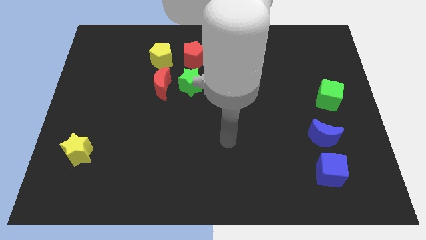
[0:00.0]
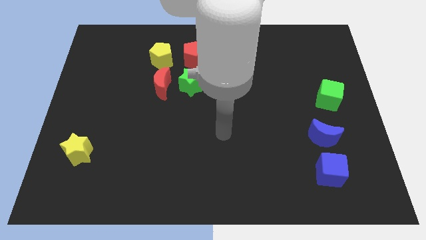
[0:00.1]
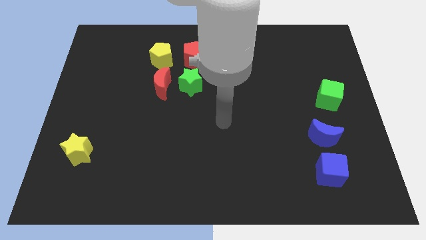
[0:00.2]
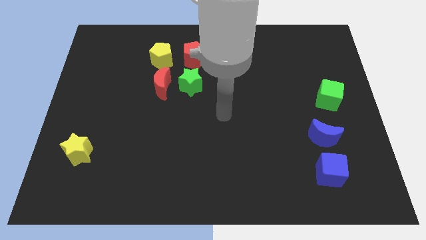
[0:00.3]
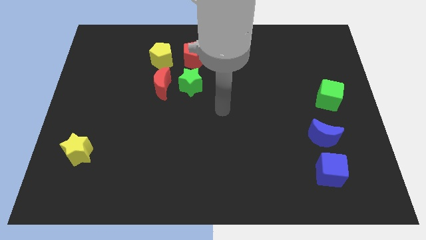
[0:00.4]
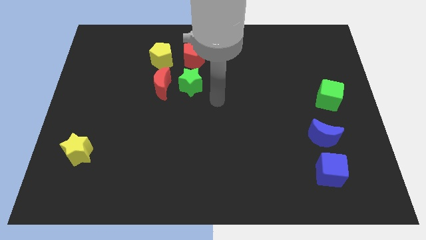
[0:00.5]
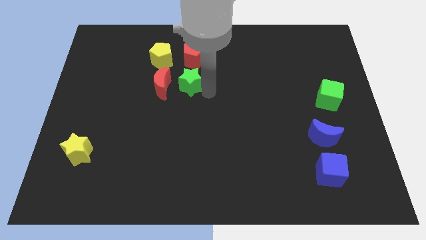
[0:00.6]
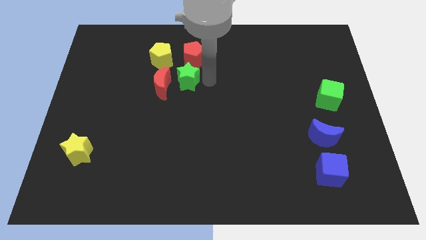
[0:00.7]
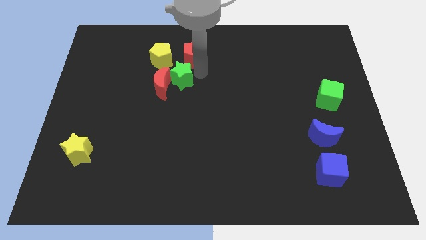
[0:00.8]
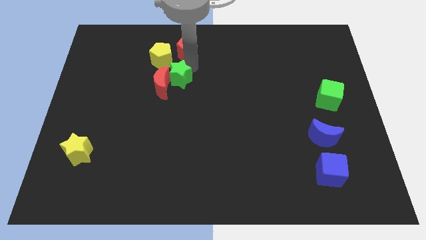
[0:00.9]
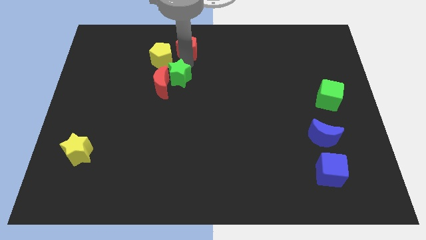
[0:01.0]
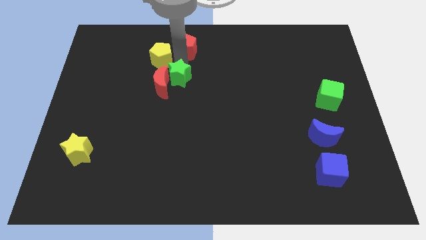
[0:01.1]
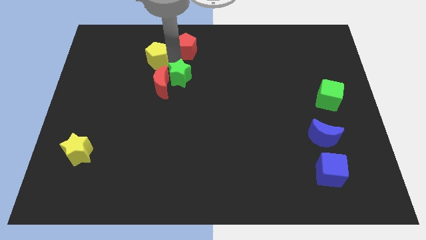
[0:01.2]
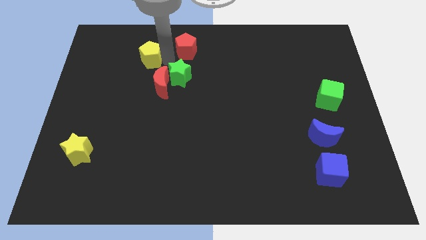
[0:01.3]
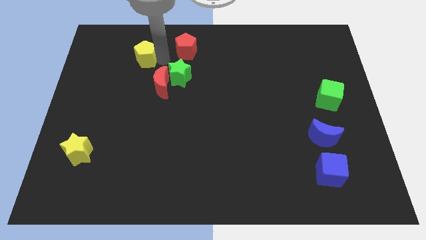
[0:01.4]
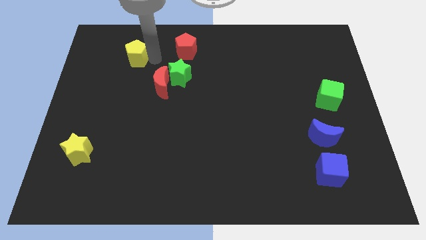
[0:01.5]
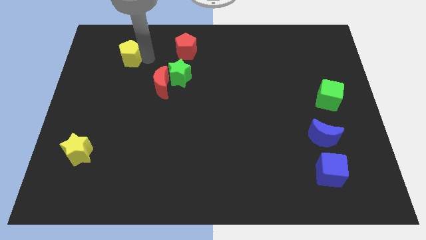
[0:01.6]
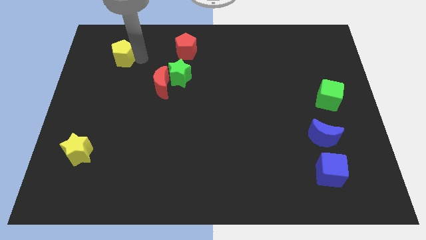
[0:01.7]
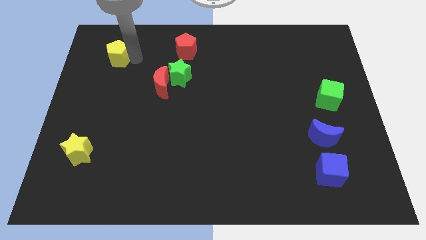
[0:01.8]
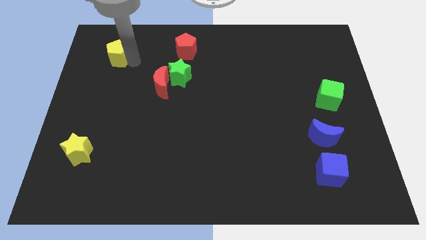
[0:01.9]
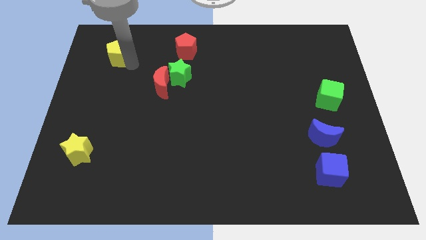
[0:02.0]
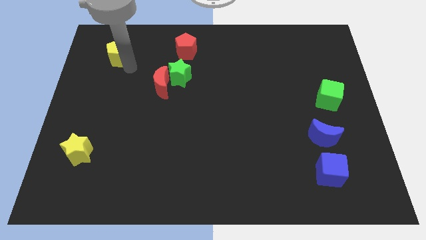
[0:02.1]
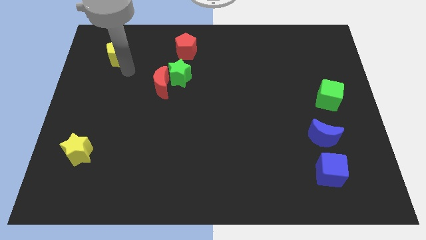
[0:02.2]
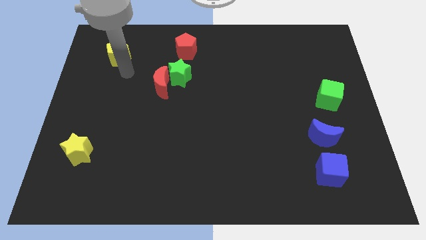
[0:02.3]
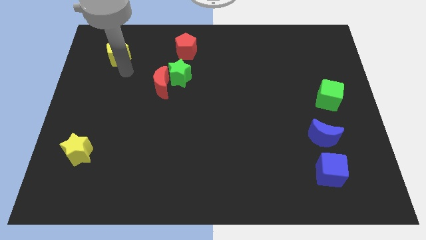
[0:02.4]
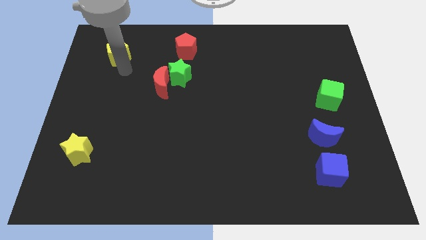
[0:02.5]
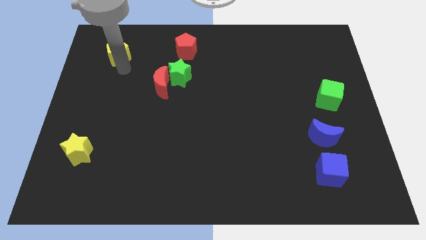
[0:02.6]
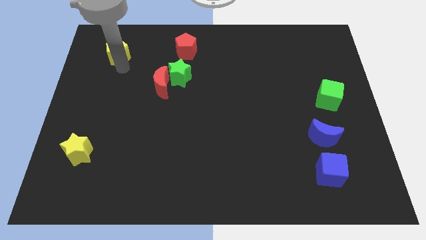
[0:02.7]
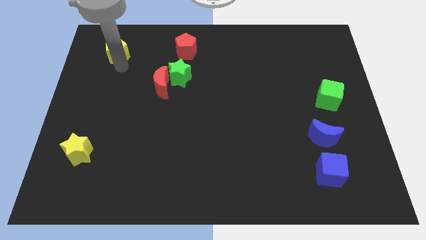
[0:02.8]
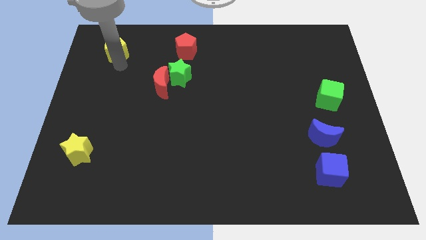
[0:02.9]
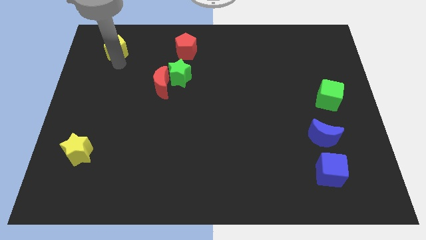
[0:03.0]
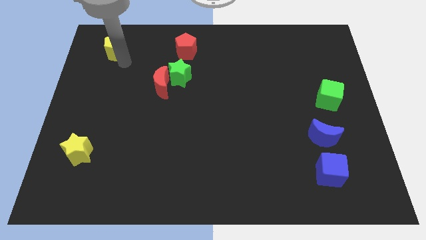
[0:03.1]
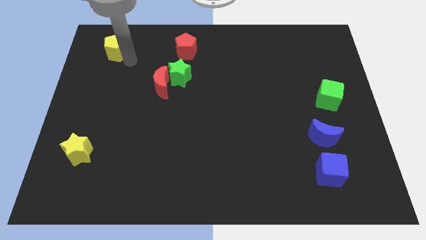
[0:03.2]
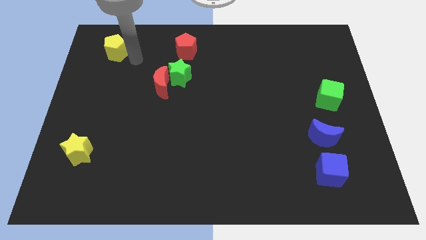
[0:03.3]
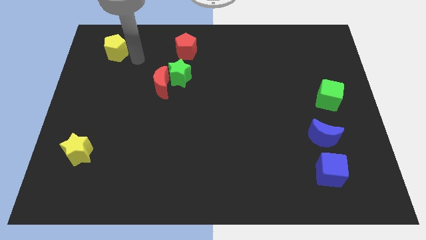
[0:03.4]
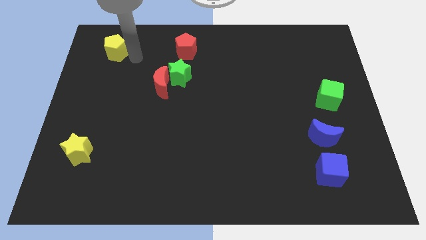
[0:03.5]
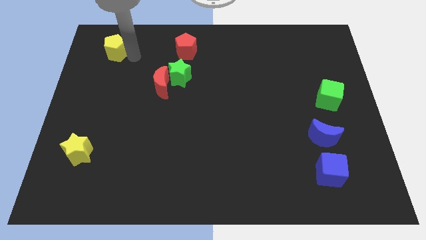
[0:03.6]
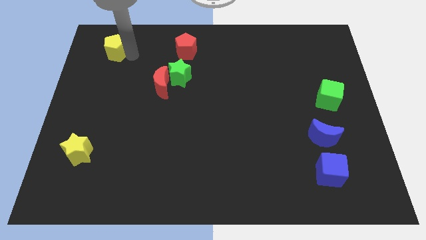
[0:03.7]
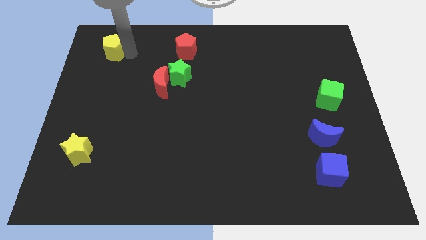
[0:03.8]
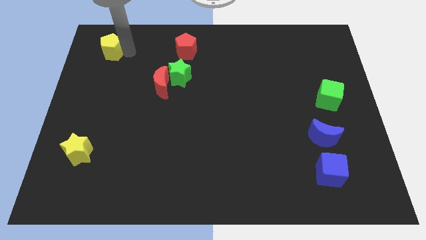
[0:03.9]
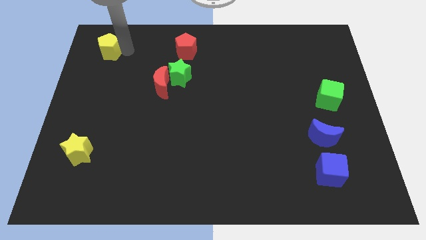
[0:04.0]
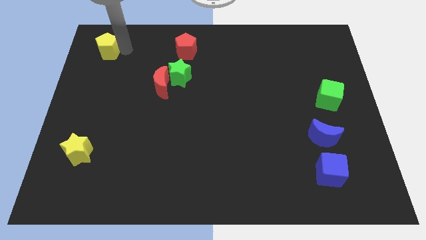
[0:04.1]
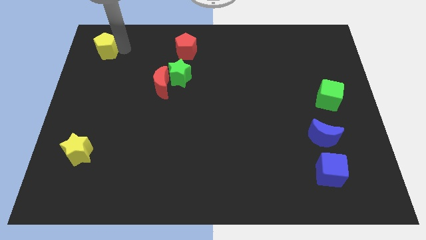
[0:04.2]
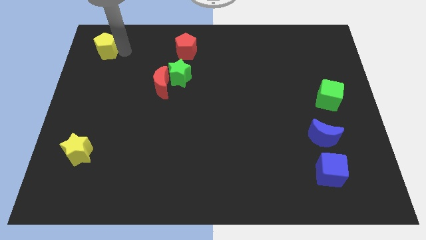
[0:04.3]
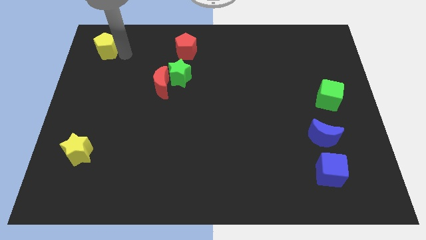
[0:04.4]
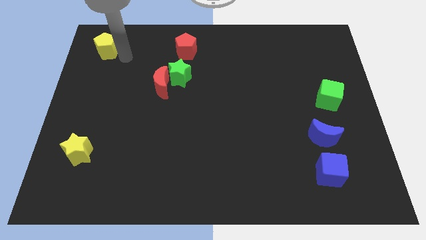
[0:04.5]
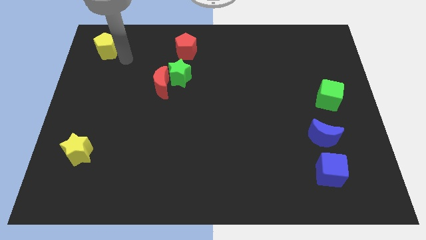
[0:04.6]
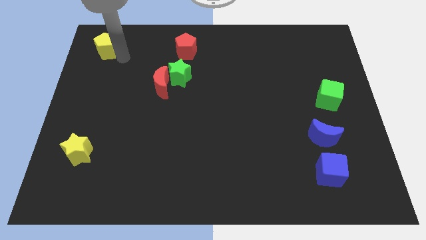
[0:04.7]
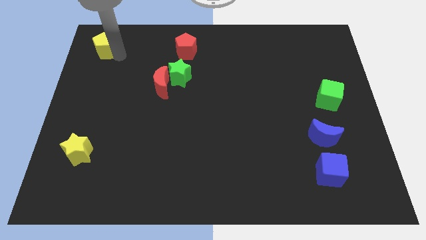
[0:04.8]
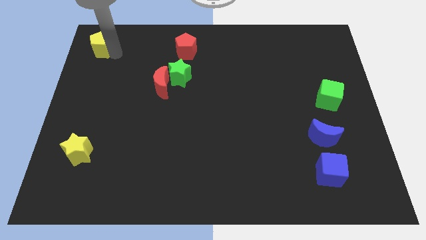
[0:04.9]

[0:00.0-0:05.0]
move the yellow pentagon to the top left corner

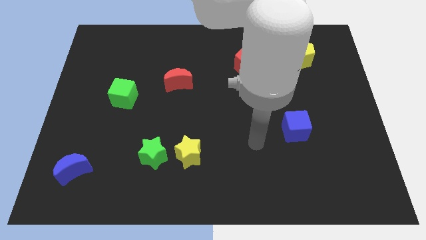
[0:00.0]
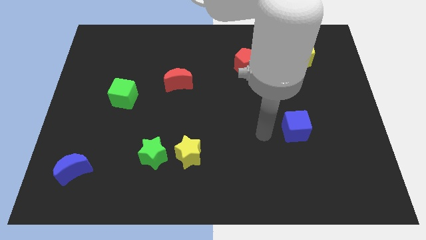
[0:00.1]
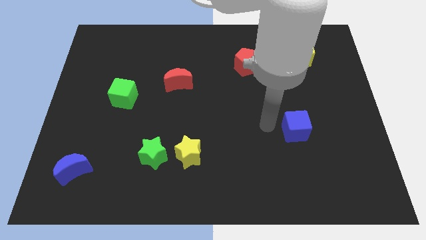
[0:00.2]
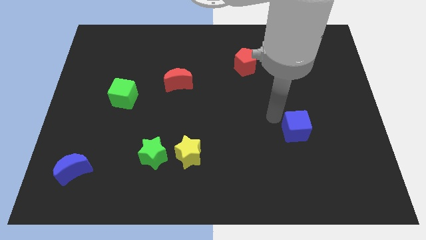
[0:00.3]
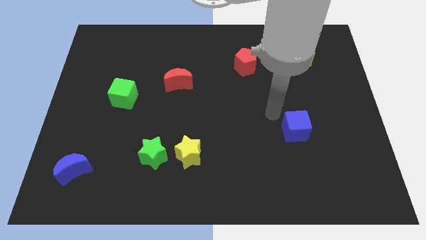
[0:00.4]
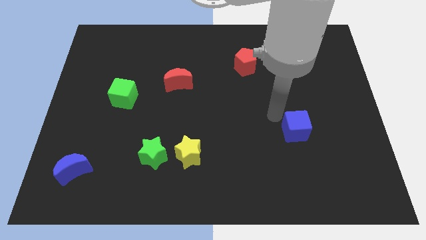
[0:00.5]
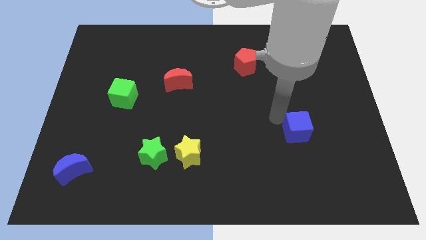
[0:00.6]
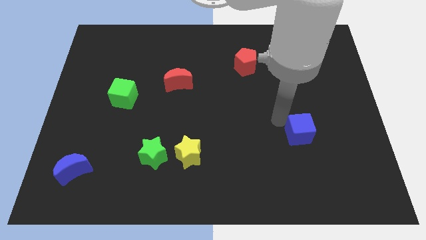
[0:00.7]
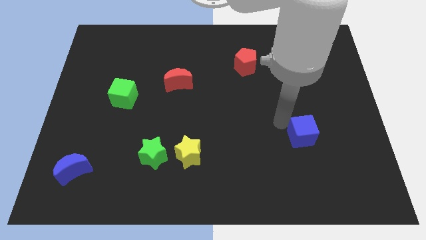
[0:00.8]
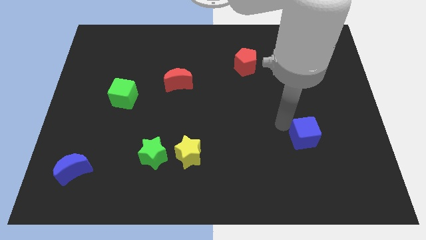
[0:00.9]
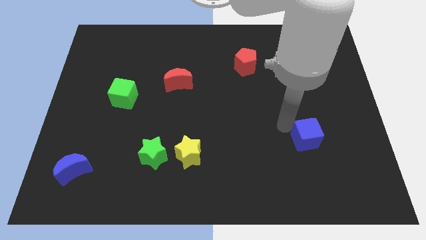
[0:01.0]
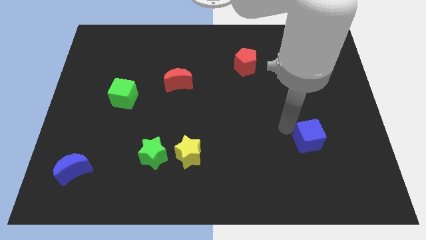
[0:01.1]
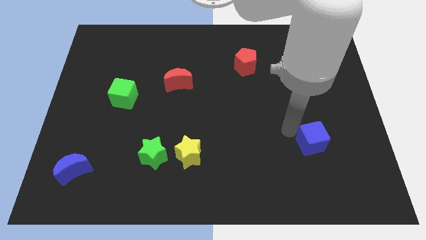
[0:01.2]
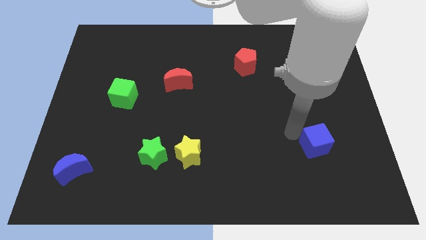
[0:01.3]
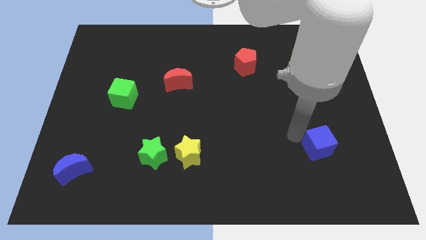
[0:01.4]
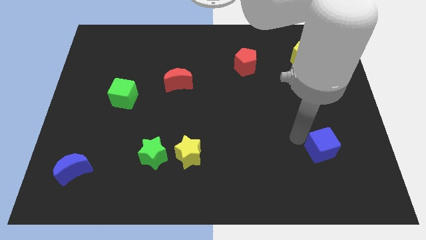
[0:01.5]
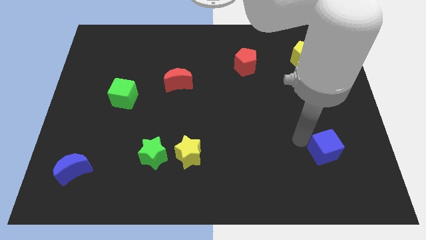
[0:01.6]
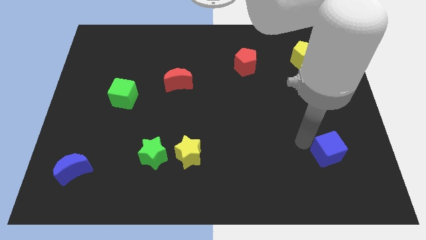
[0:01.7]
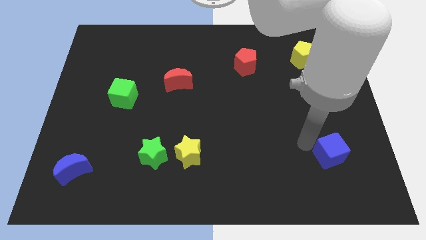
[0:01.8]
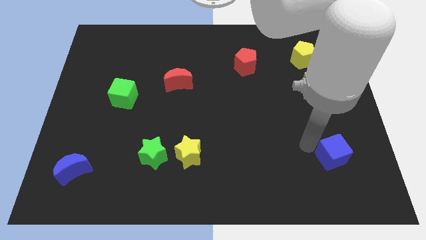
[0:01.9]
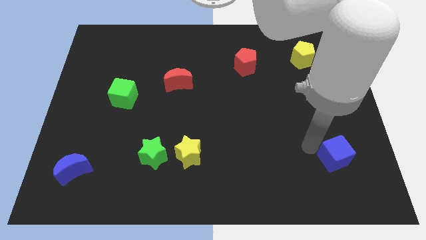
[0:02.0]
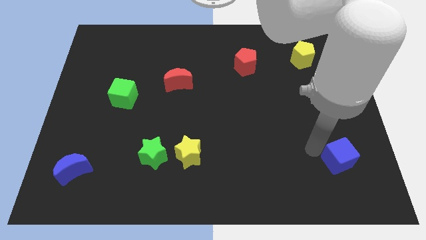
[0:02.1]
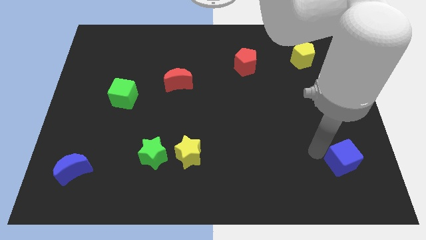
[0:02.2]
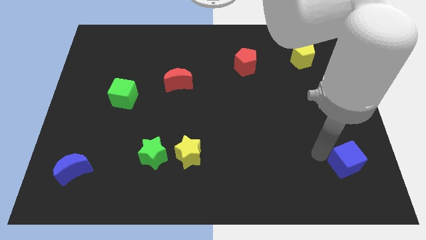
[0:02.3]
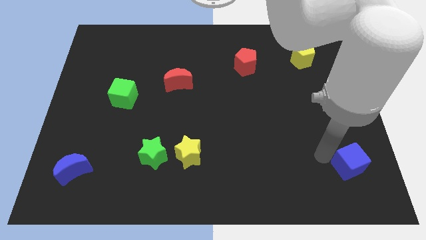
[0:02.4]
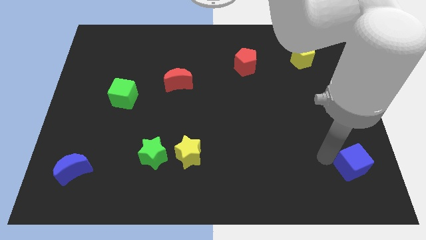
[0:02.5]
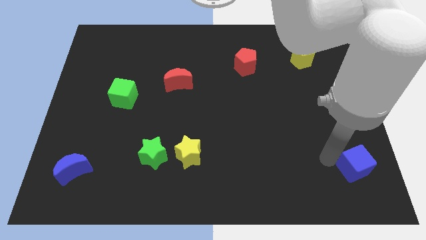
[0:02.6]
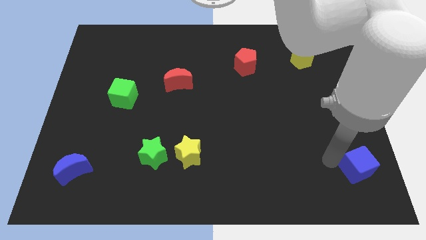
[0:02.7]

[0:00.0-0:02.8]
put the blue cube to the bottom right corner
